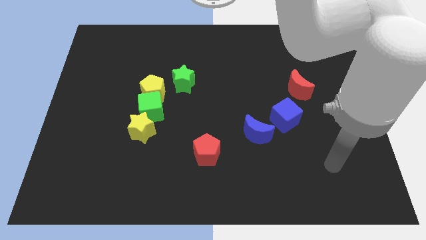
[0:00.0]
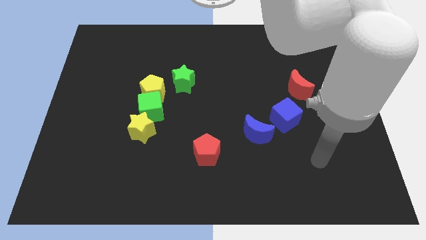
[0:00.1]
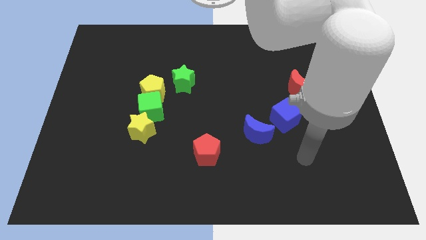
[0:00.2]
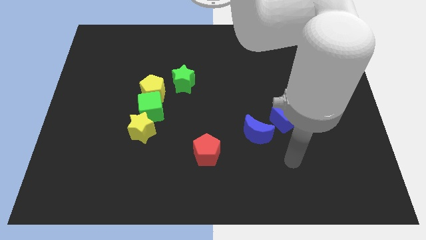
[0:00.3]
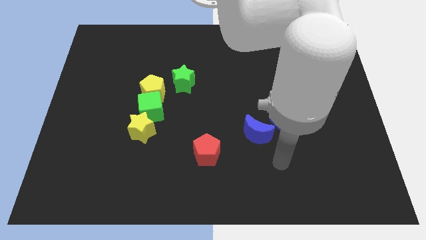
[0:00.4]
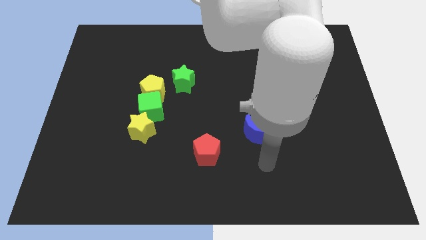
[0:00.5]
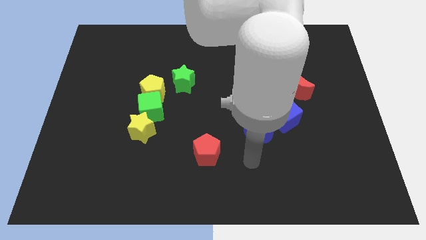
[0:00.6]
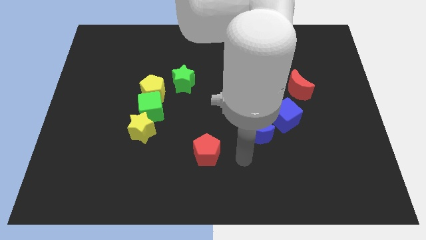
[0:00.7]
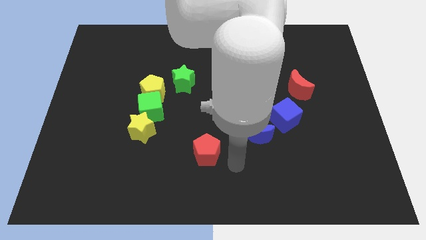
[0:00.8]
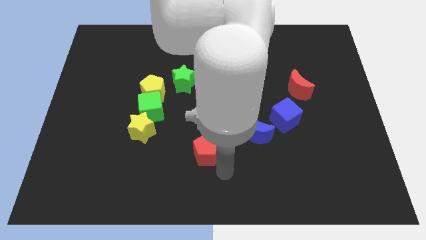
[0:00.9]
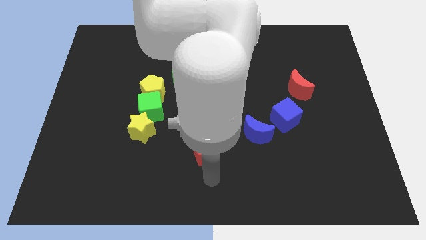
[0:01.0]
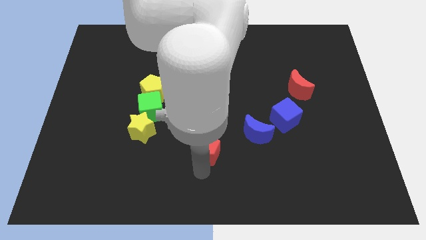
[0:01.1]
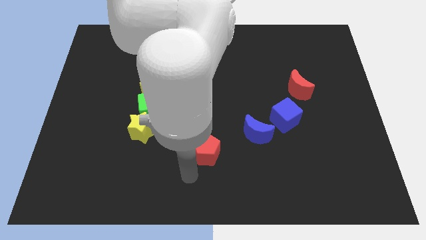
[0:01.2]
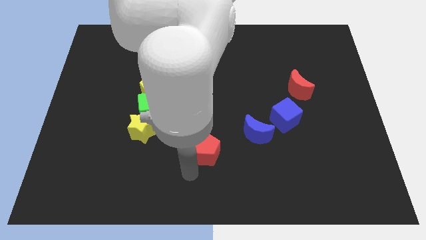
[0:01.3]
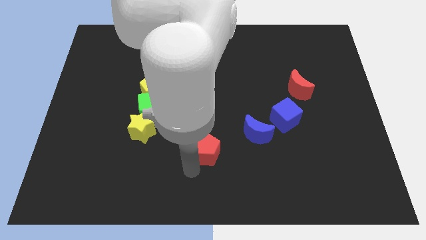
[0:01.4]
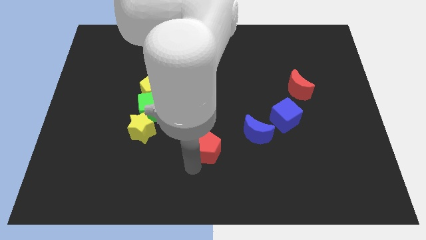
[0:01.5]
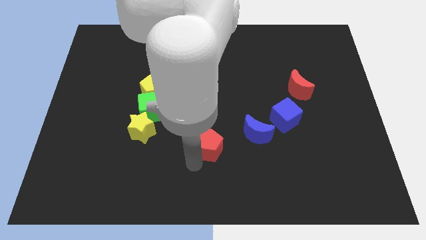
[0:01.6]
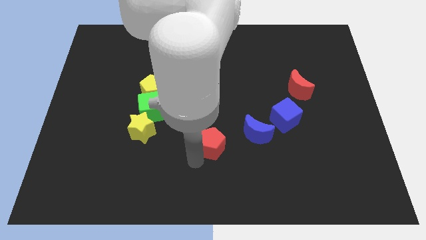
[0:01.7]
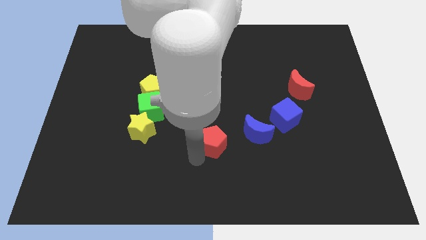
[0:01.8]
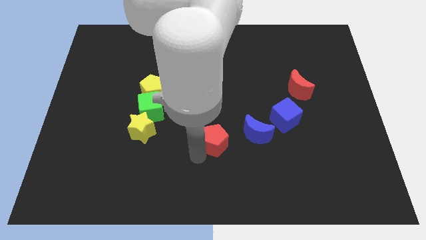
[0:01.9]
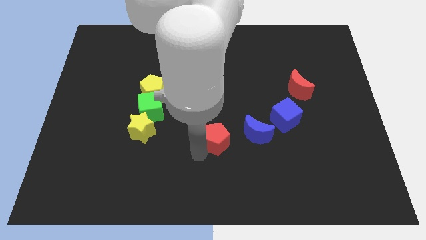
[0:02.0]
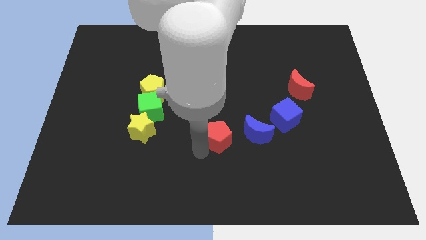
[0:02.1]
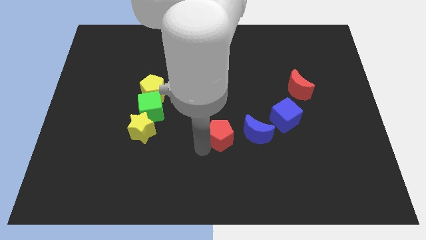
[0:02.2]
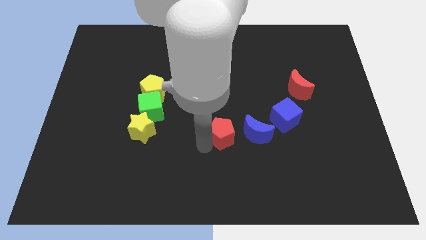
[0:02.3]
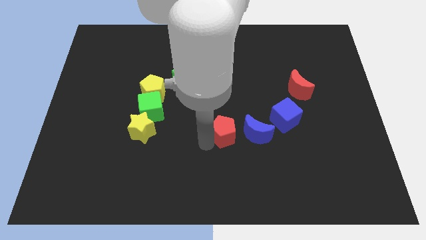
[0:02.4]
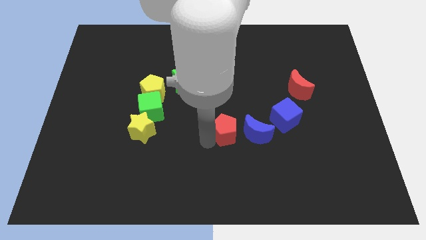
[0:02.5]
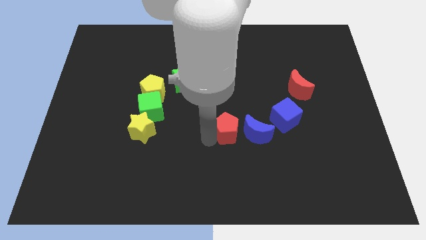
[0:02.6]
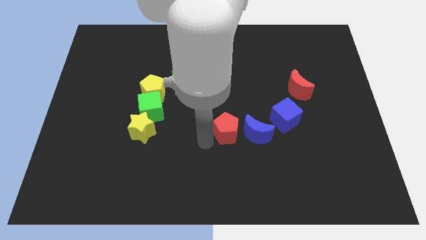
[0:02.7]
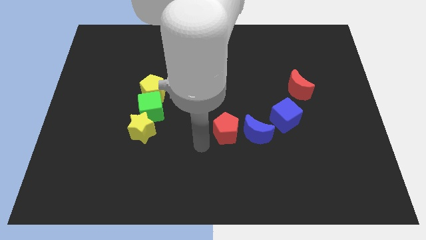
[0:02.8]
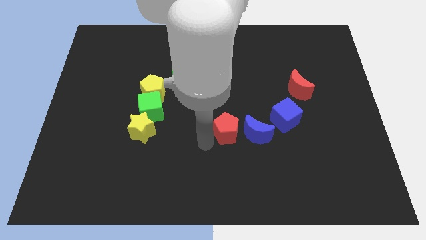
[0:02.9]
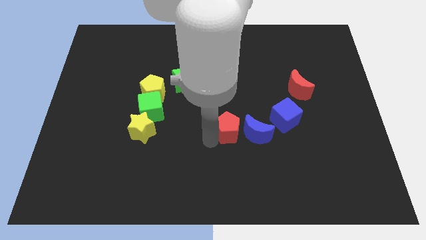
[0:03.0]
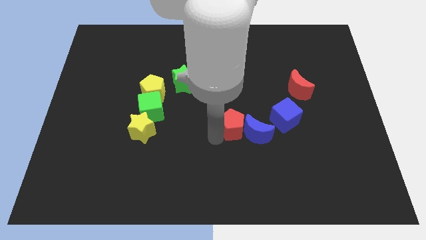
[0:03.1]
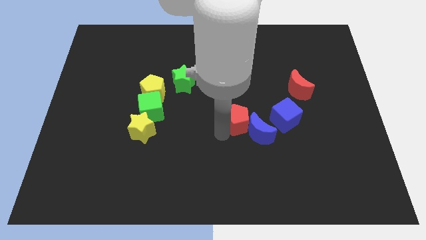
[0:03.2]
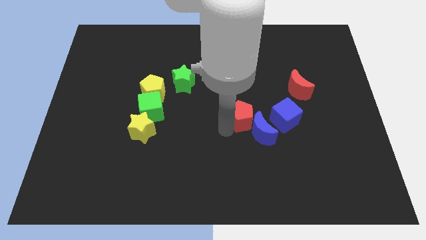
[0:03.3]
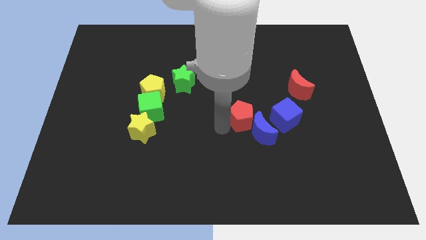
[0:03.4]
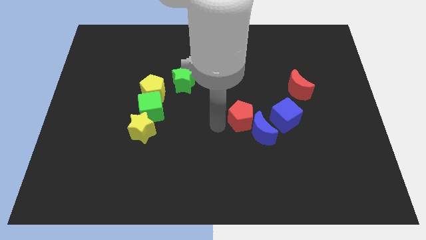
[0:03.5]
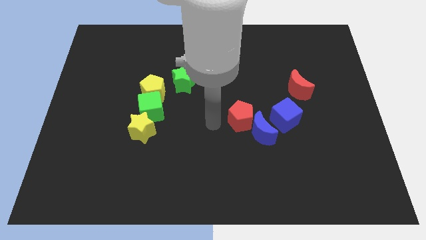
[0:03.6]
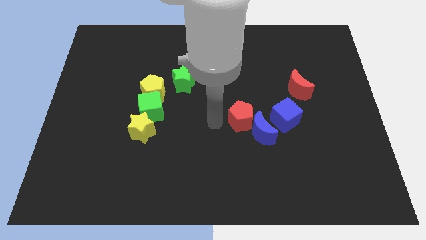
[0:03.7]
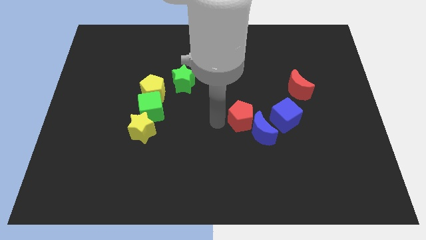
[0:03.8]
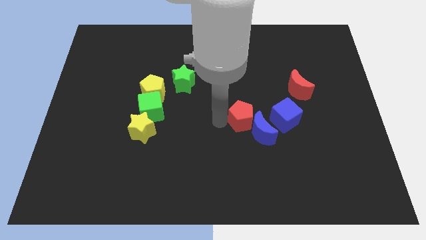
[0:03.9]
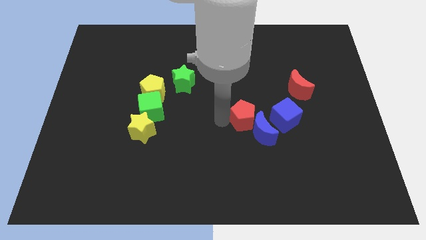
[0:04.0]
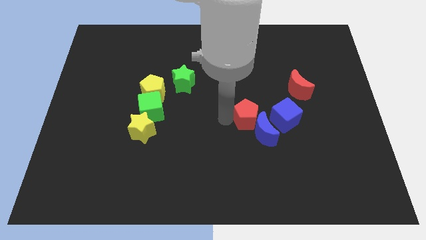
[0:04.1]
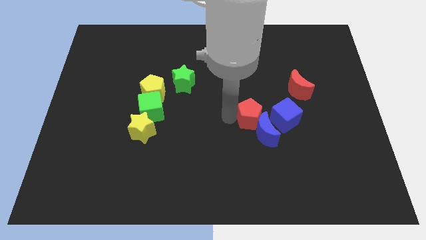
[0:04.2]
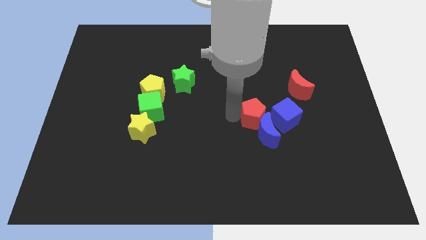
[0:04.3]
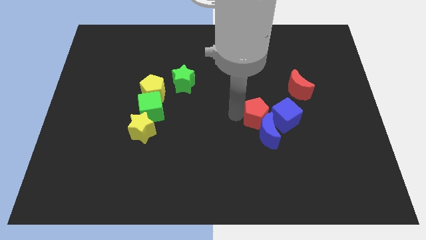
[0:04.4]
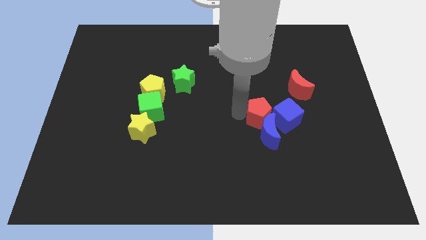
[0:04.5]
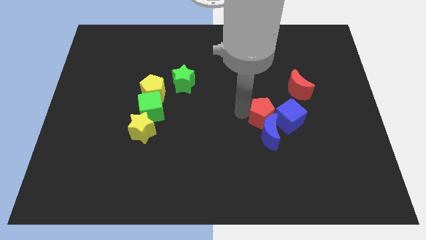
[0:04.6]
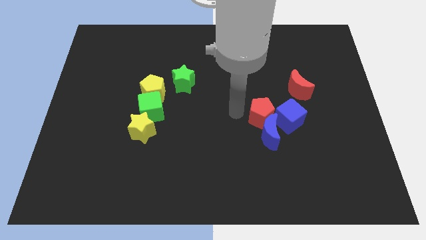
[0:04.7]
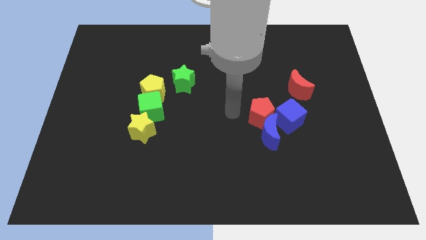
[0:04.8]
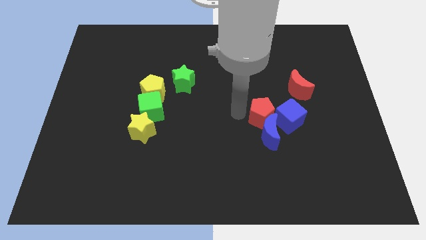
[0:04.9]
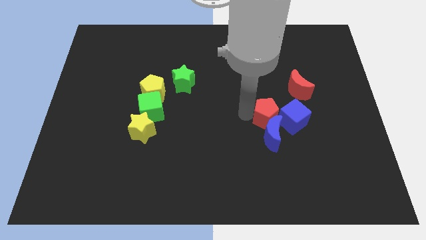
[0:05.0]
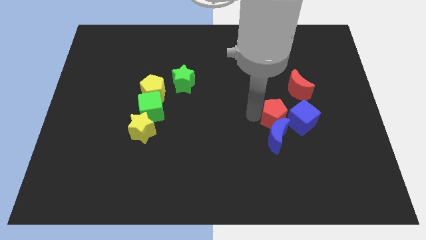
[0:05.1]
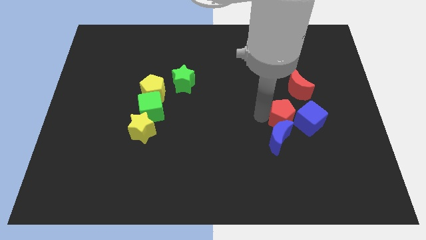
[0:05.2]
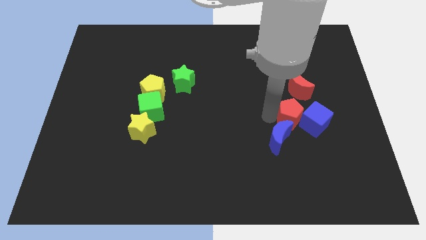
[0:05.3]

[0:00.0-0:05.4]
move the red pentagon next to the blue cube

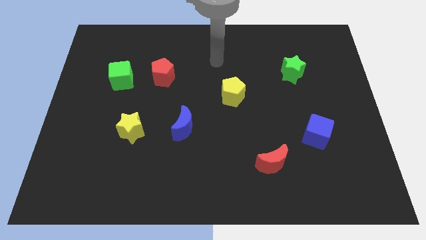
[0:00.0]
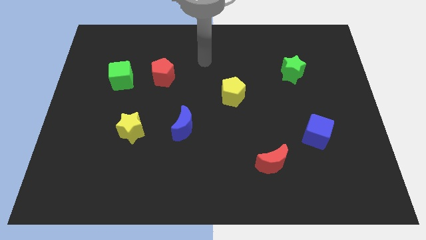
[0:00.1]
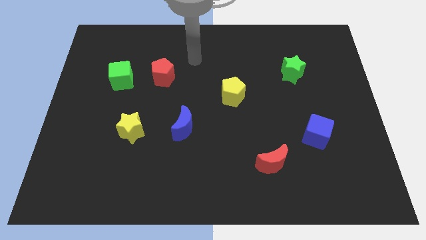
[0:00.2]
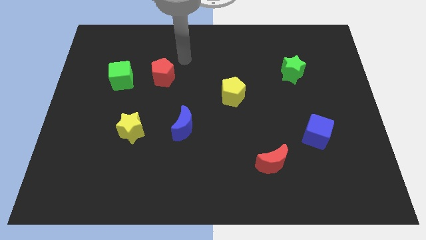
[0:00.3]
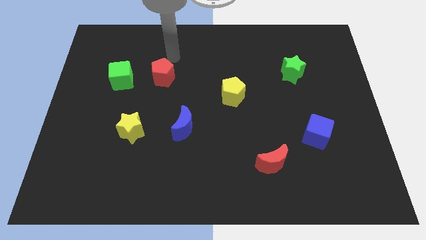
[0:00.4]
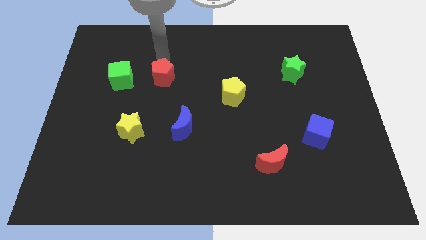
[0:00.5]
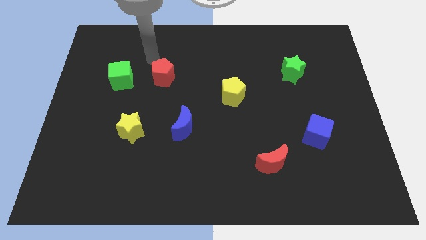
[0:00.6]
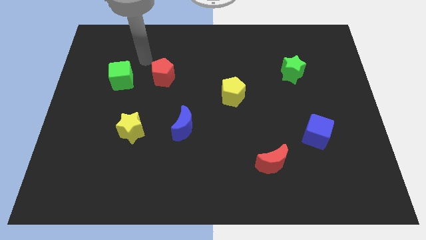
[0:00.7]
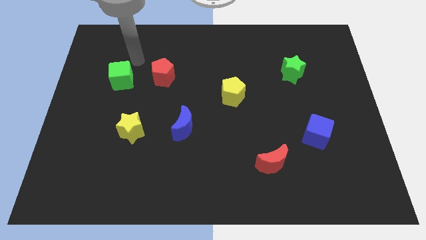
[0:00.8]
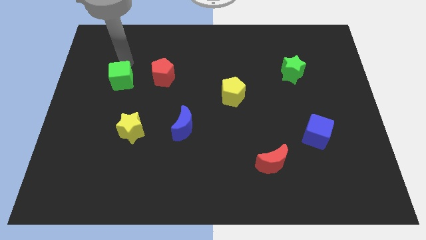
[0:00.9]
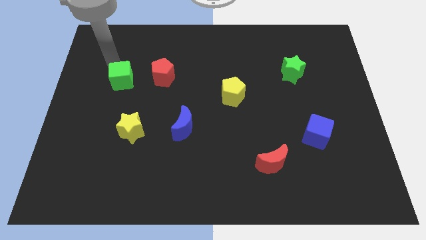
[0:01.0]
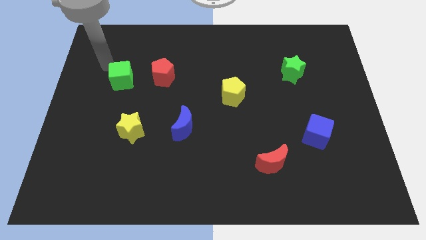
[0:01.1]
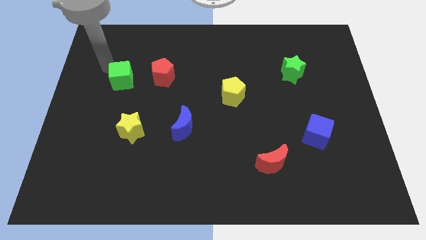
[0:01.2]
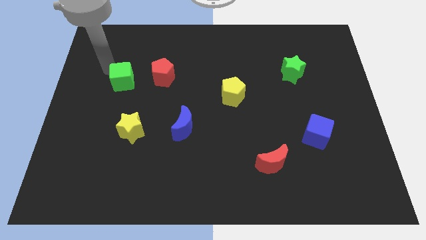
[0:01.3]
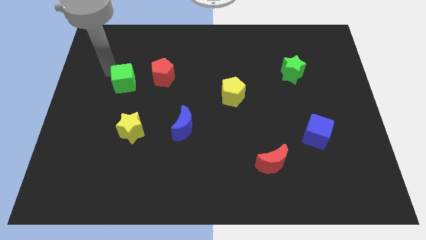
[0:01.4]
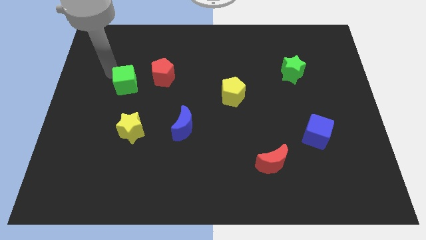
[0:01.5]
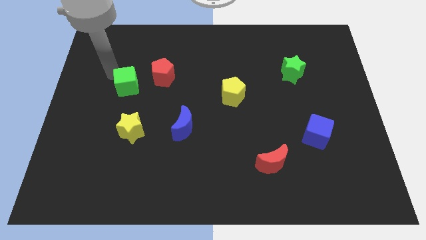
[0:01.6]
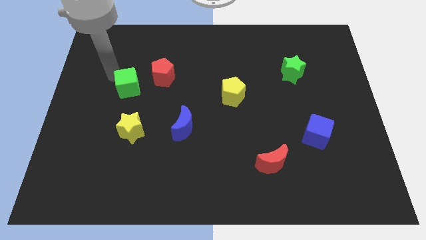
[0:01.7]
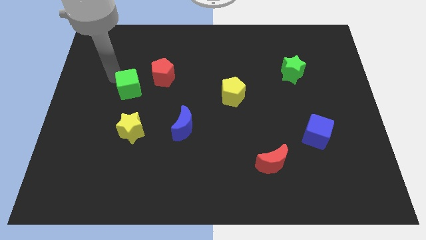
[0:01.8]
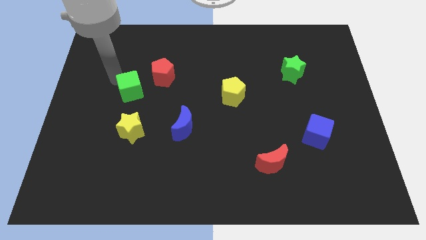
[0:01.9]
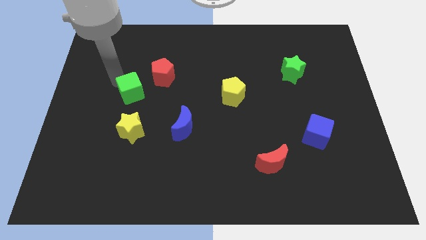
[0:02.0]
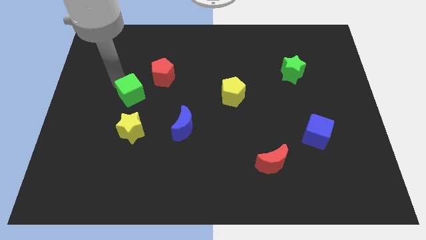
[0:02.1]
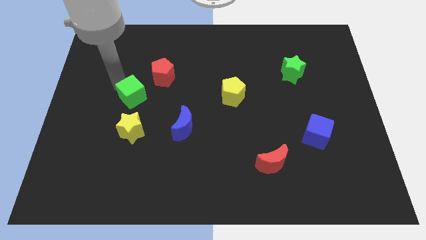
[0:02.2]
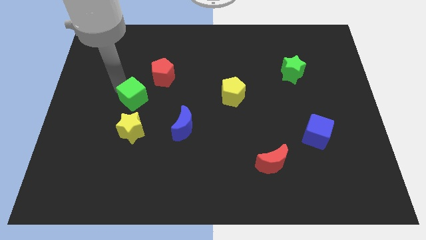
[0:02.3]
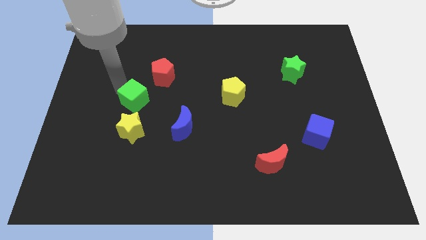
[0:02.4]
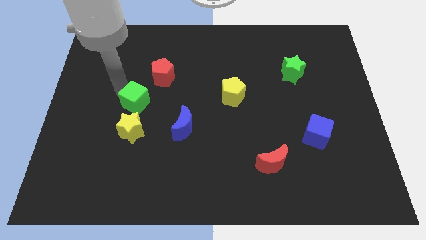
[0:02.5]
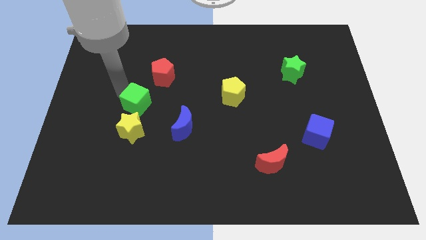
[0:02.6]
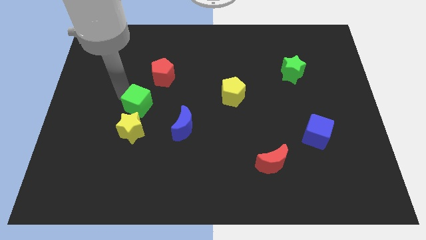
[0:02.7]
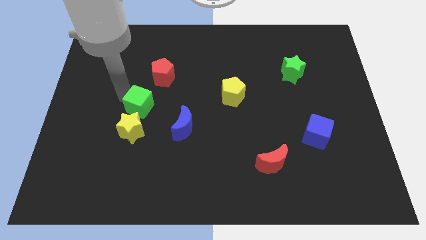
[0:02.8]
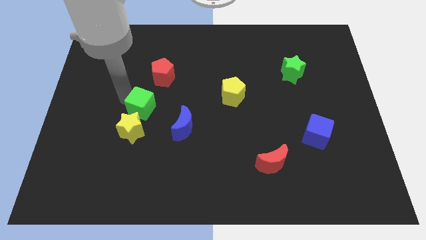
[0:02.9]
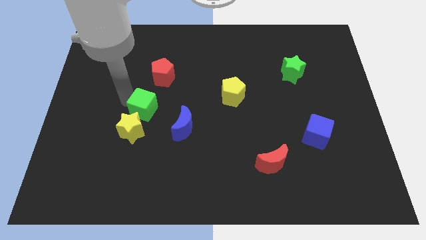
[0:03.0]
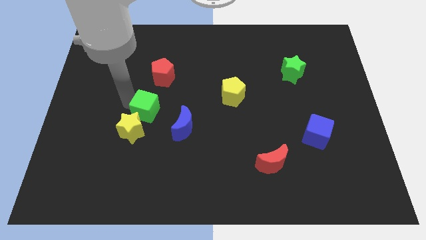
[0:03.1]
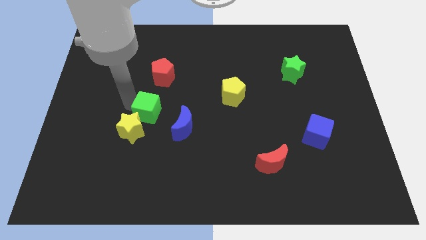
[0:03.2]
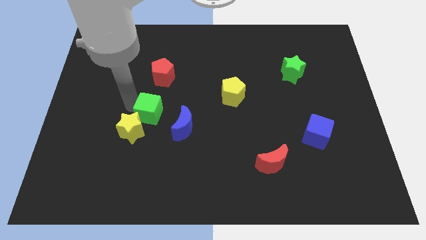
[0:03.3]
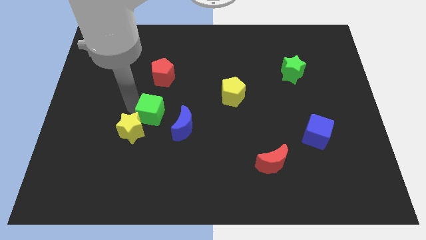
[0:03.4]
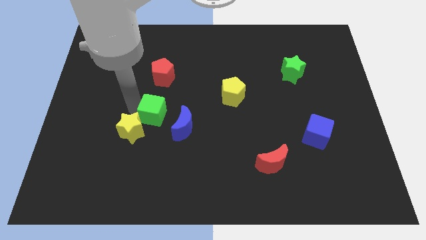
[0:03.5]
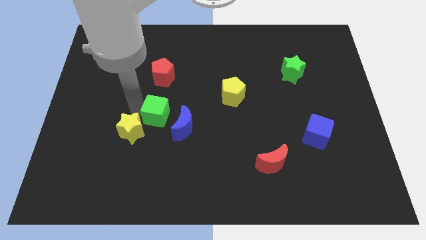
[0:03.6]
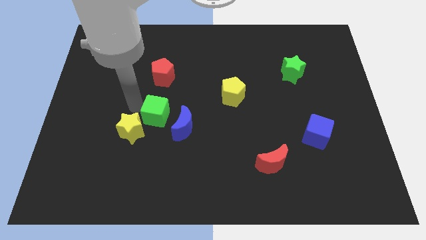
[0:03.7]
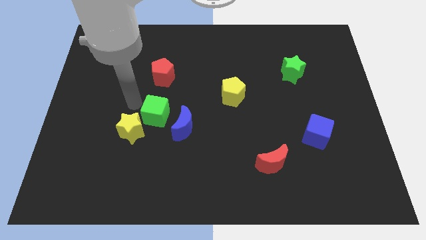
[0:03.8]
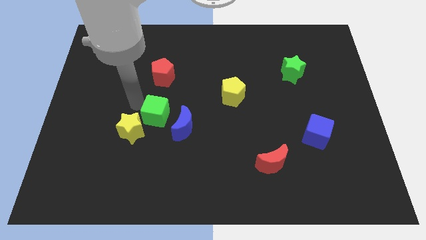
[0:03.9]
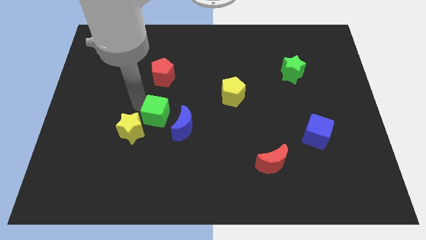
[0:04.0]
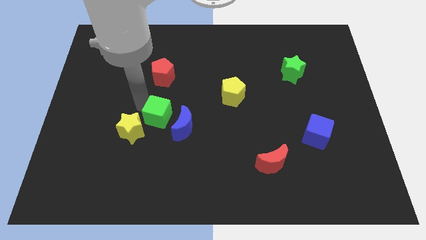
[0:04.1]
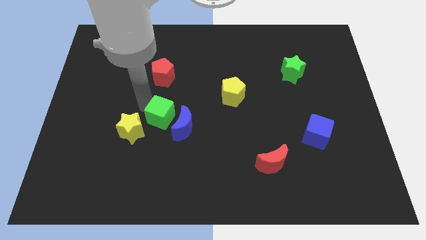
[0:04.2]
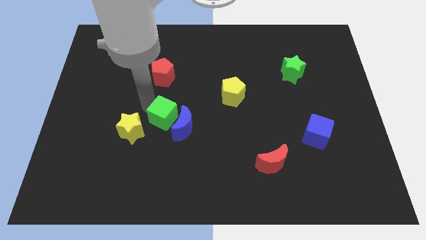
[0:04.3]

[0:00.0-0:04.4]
put the green cube towards the blue moon
